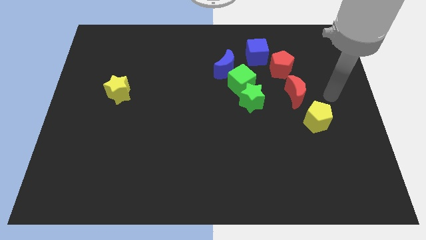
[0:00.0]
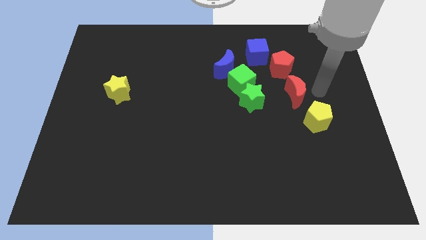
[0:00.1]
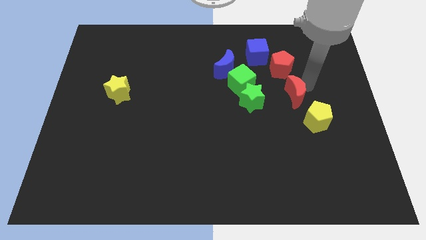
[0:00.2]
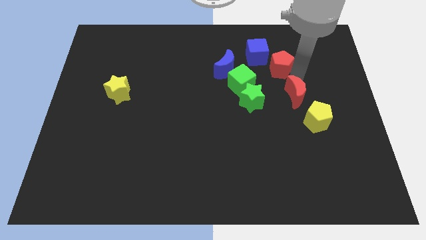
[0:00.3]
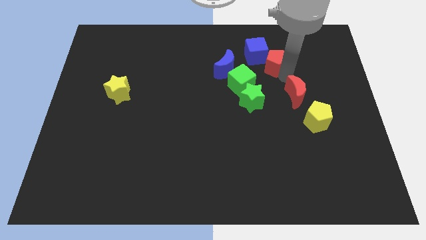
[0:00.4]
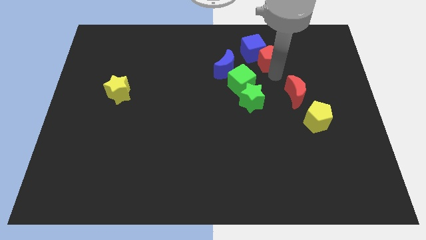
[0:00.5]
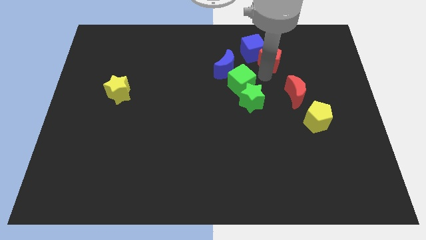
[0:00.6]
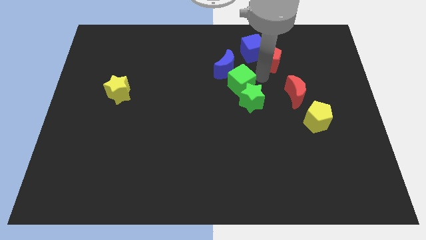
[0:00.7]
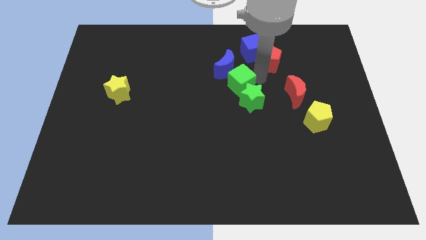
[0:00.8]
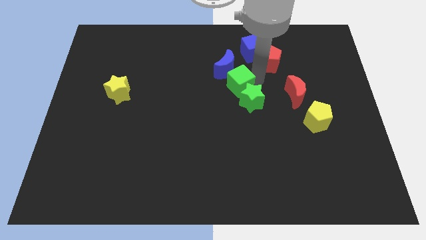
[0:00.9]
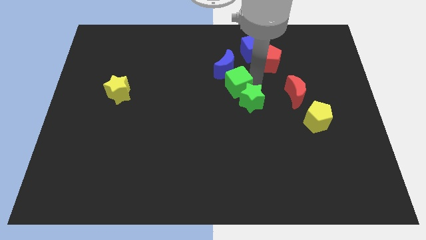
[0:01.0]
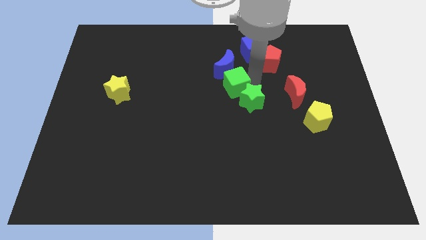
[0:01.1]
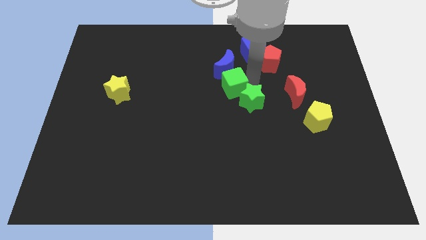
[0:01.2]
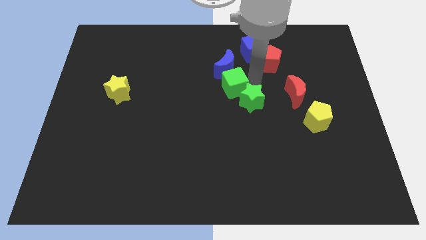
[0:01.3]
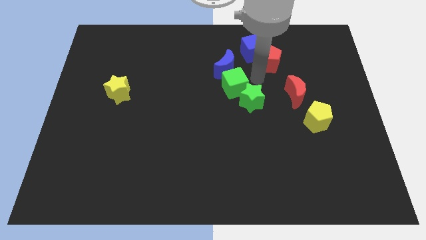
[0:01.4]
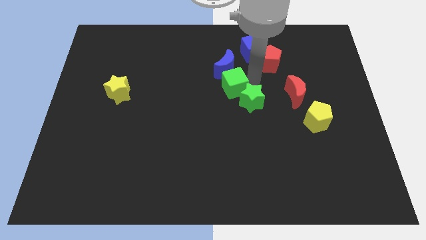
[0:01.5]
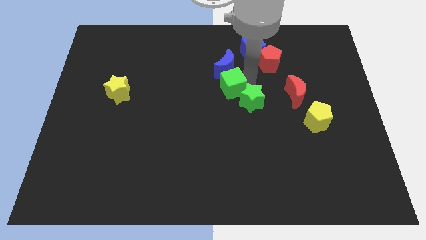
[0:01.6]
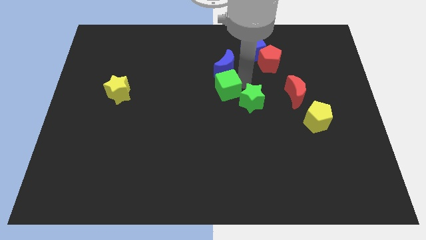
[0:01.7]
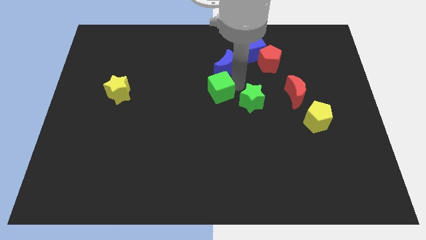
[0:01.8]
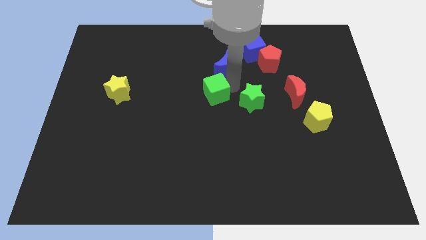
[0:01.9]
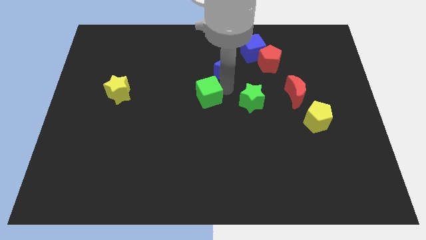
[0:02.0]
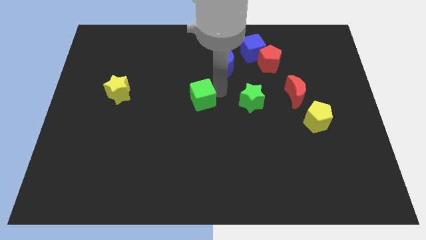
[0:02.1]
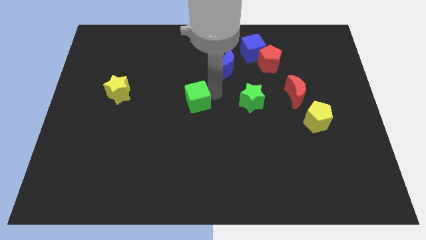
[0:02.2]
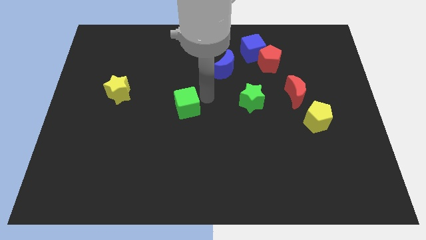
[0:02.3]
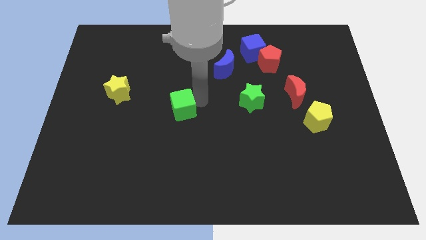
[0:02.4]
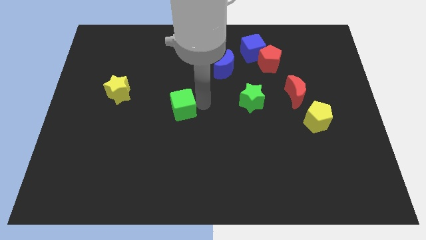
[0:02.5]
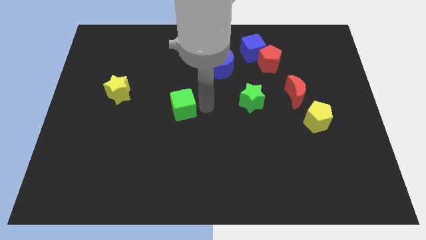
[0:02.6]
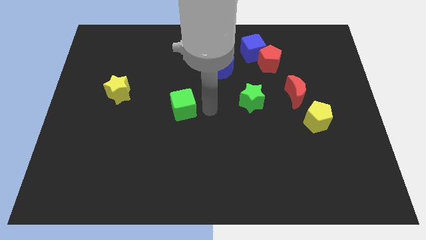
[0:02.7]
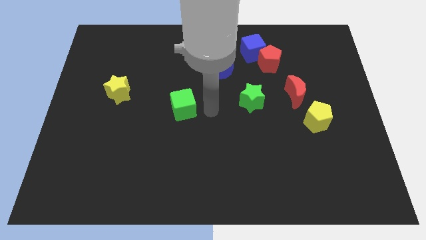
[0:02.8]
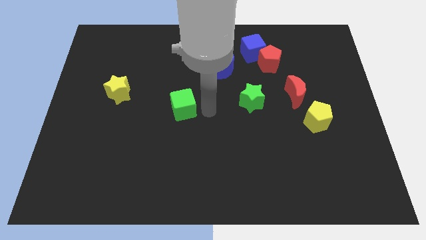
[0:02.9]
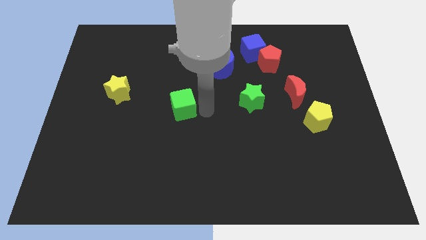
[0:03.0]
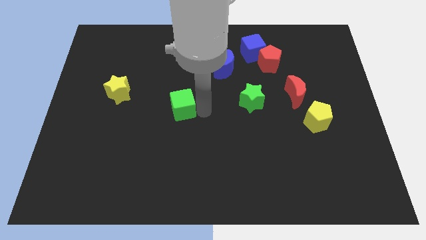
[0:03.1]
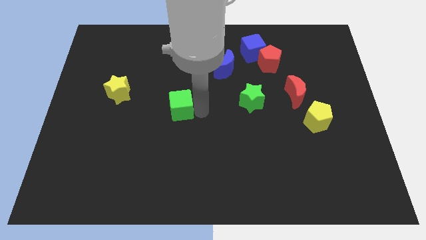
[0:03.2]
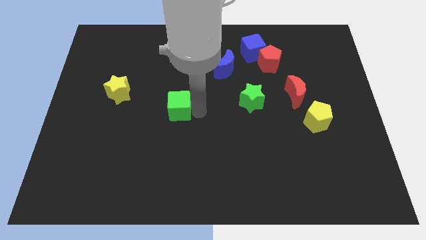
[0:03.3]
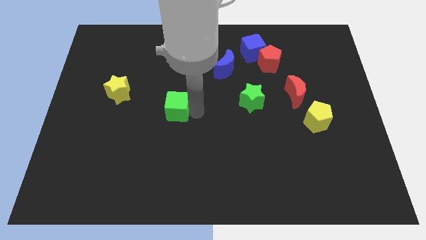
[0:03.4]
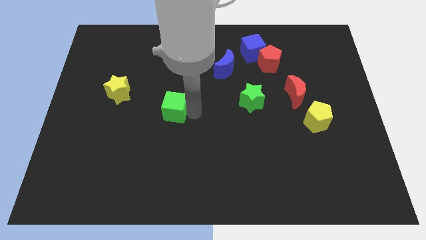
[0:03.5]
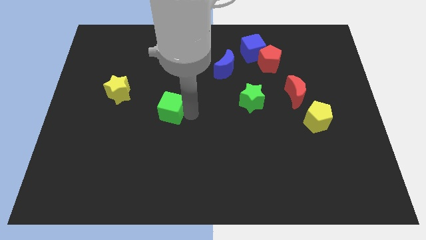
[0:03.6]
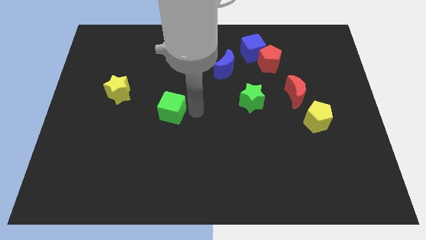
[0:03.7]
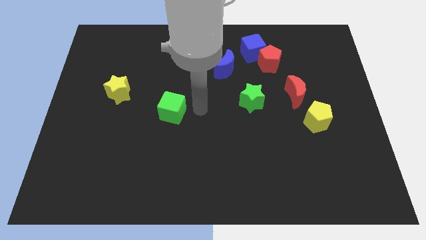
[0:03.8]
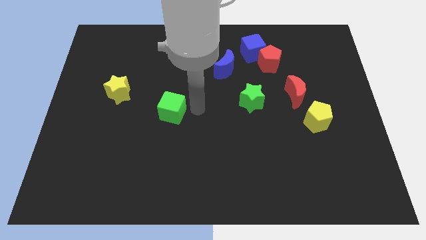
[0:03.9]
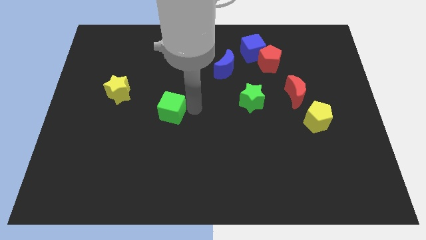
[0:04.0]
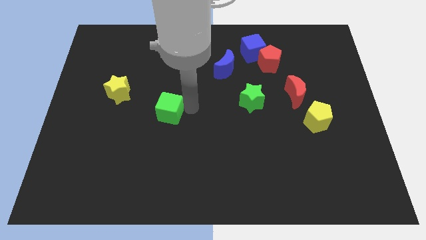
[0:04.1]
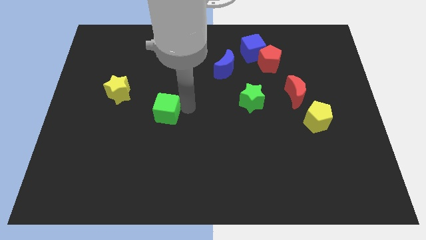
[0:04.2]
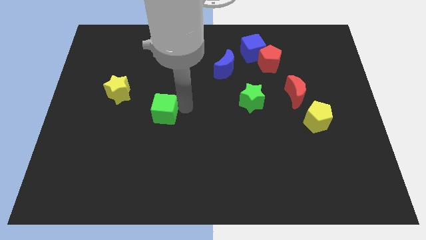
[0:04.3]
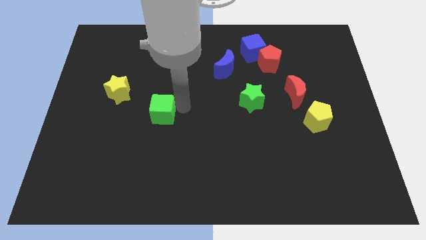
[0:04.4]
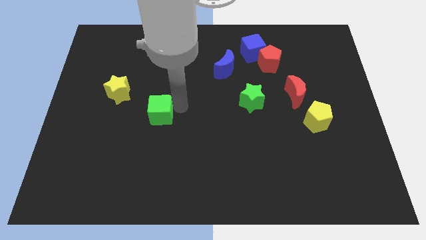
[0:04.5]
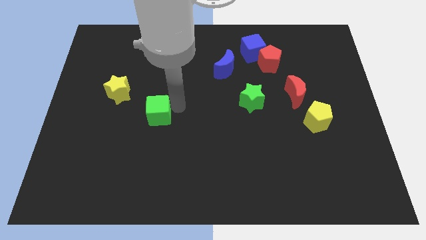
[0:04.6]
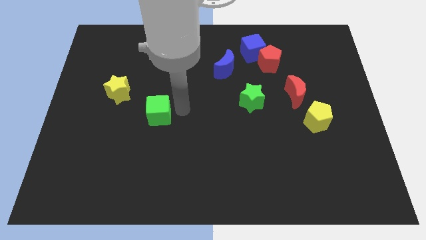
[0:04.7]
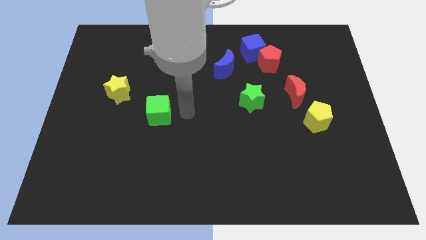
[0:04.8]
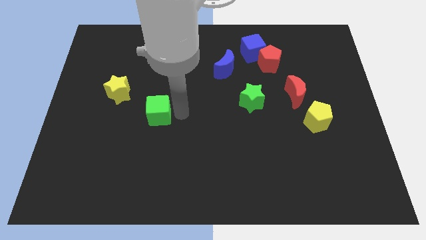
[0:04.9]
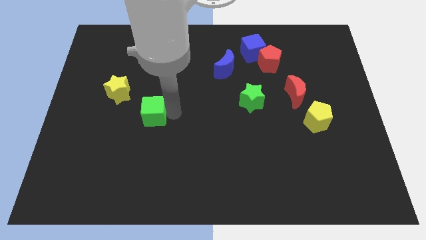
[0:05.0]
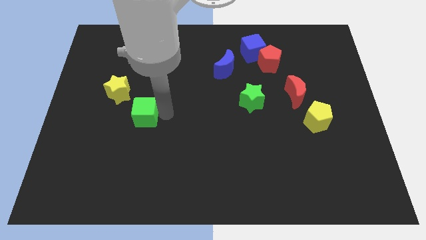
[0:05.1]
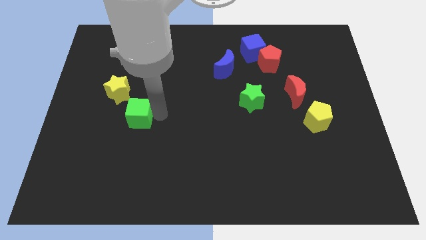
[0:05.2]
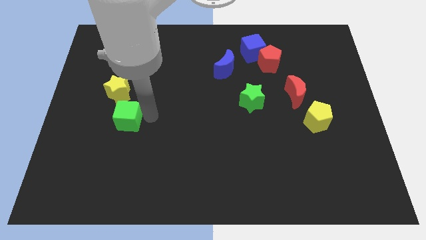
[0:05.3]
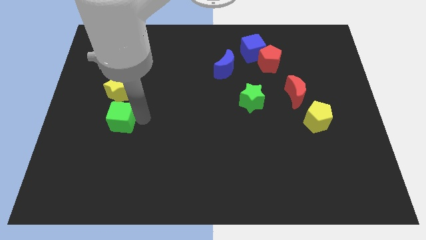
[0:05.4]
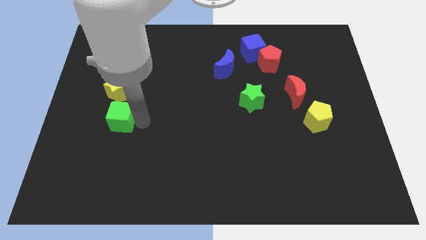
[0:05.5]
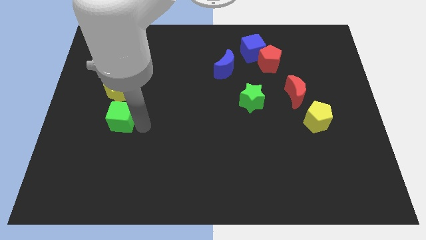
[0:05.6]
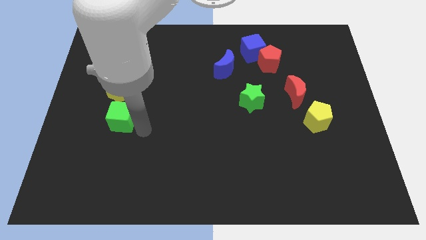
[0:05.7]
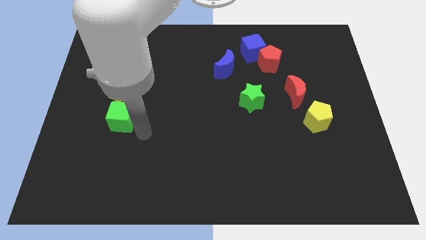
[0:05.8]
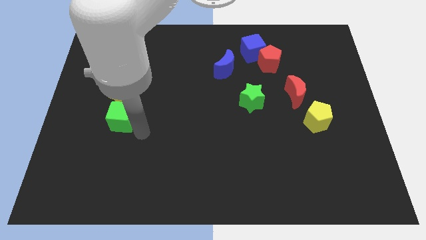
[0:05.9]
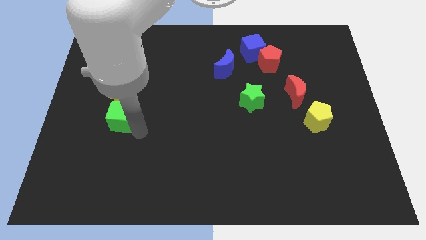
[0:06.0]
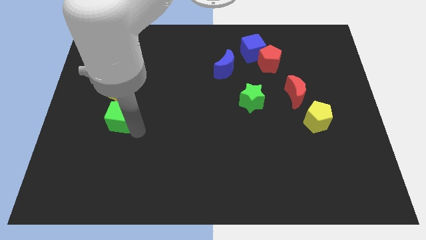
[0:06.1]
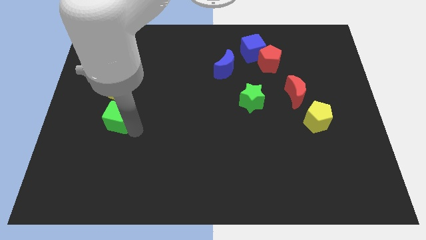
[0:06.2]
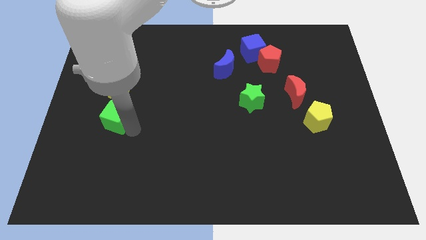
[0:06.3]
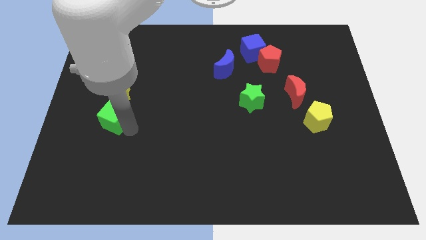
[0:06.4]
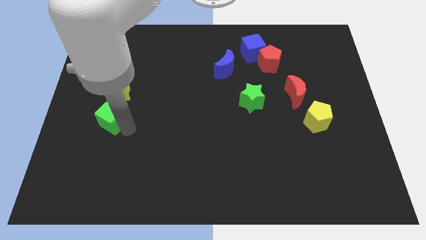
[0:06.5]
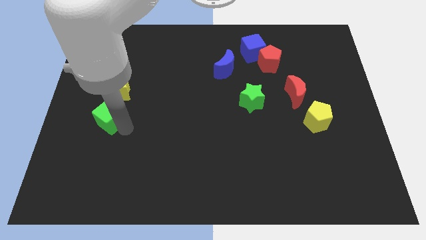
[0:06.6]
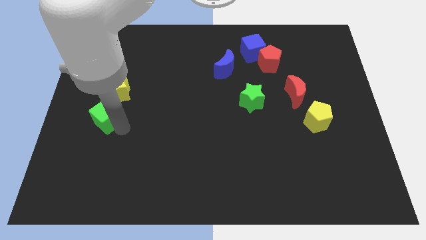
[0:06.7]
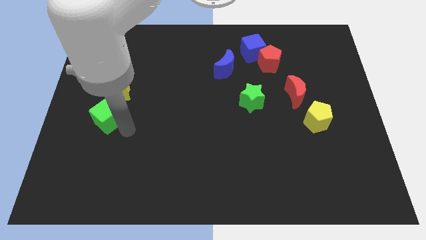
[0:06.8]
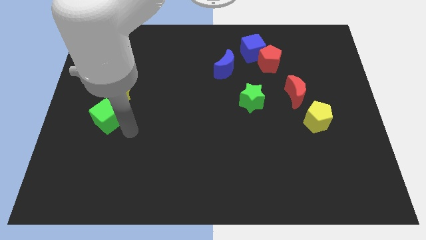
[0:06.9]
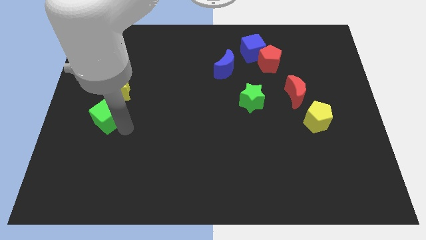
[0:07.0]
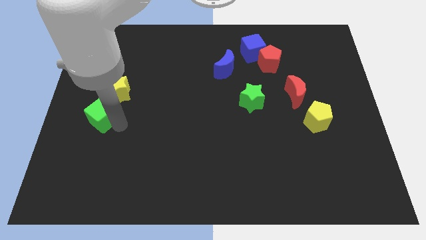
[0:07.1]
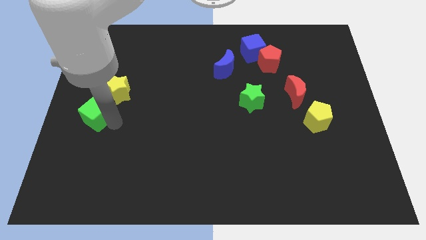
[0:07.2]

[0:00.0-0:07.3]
push the green cube to the left side

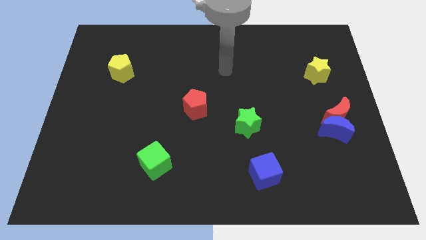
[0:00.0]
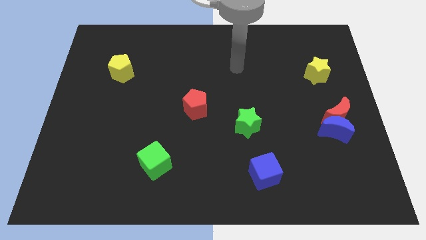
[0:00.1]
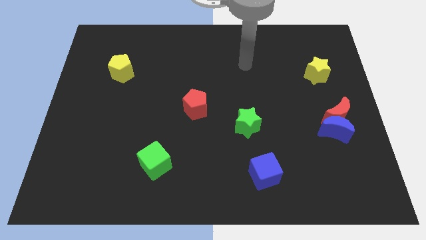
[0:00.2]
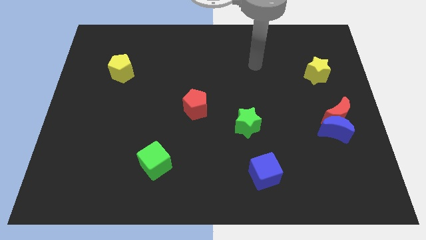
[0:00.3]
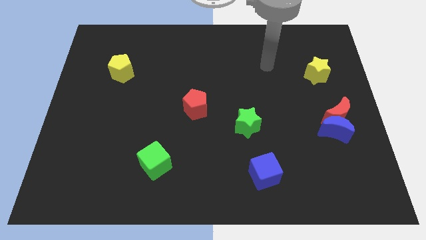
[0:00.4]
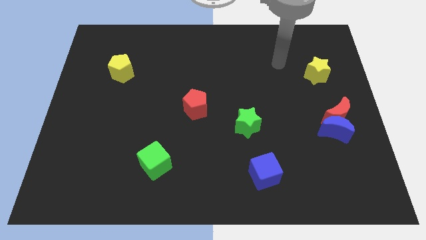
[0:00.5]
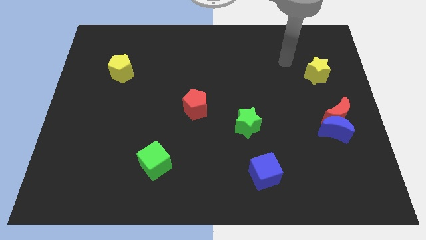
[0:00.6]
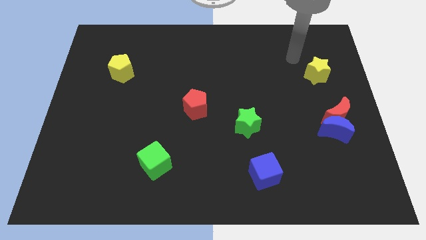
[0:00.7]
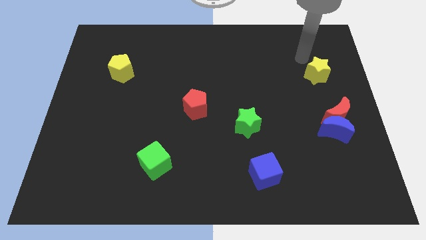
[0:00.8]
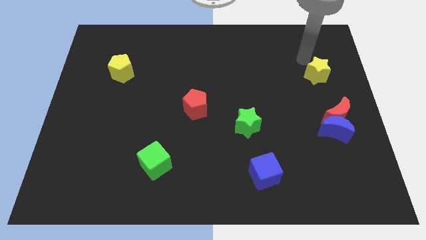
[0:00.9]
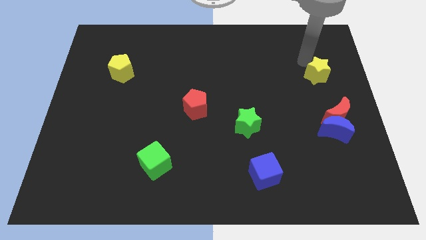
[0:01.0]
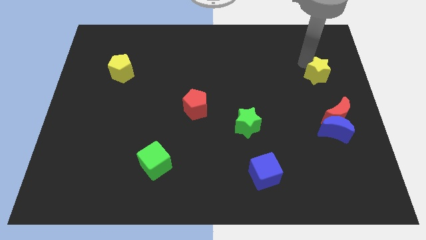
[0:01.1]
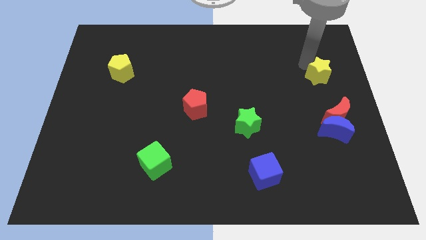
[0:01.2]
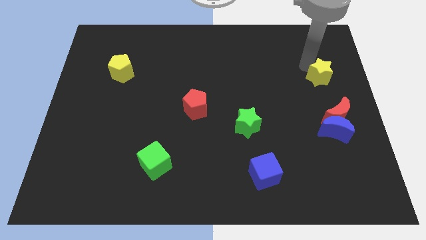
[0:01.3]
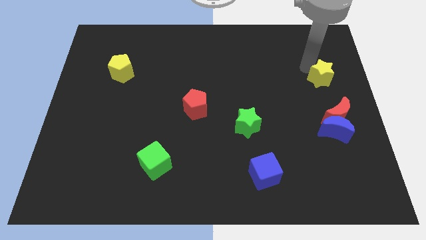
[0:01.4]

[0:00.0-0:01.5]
push the yellow star to the right side of the board

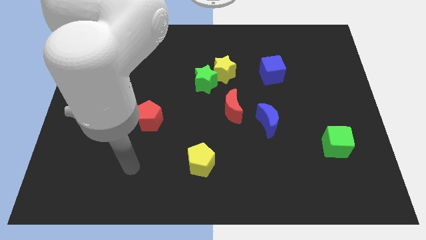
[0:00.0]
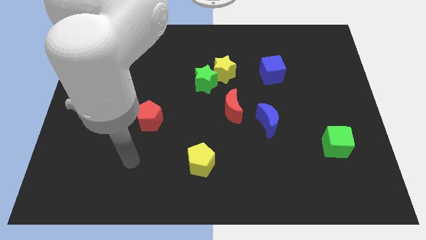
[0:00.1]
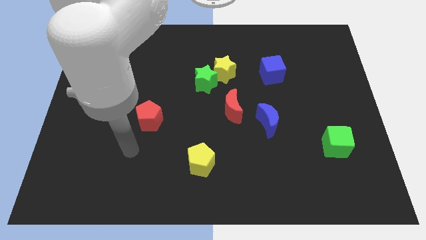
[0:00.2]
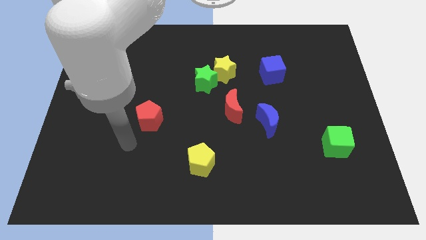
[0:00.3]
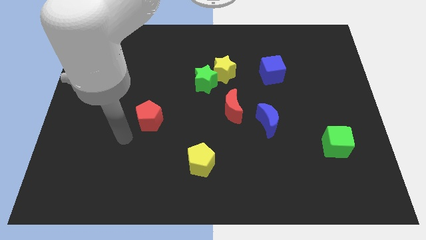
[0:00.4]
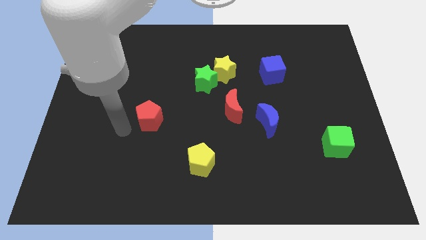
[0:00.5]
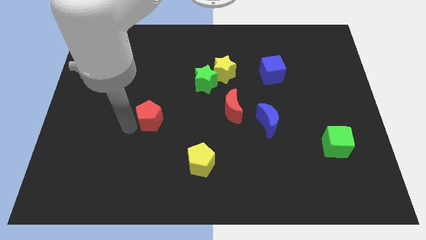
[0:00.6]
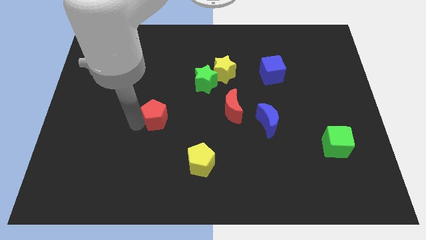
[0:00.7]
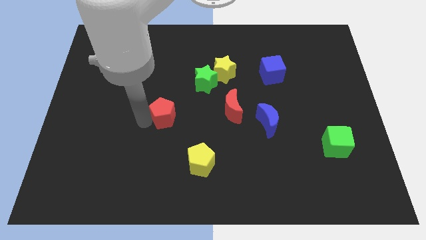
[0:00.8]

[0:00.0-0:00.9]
put the red pentagon to the center of the board
